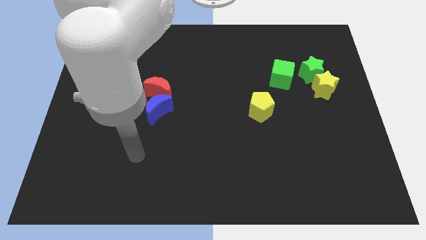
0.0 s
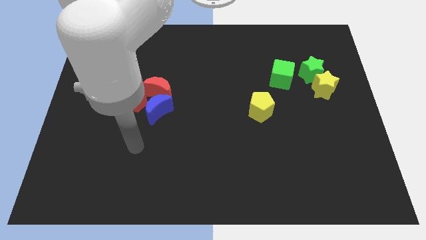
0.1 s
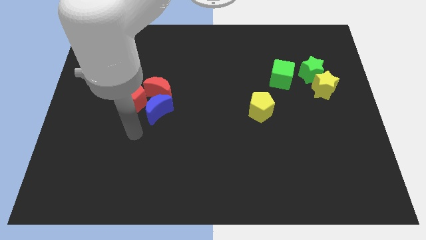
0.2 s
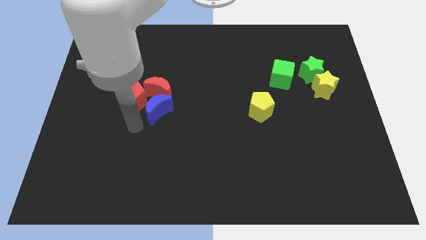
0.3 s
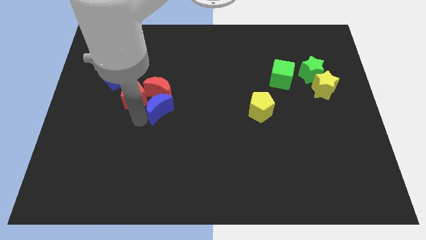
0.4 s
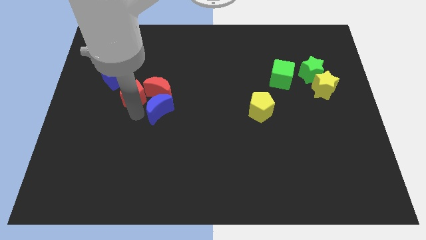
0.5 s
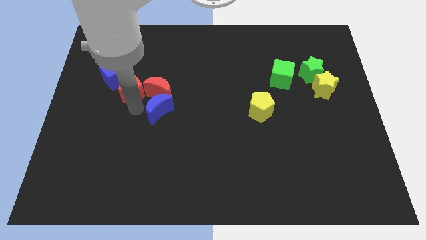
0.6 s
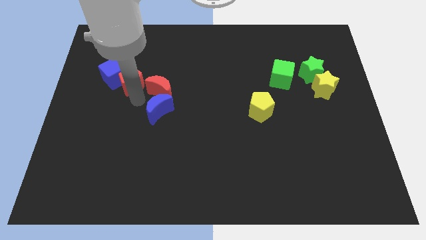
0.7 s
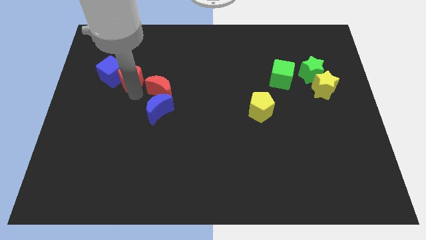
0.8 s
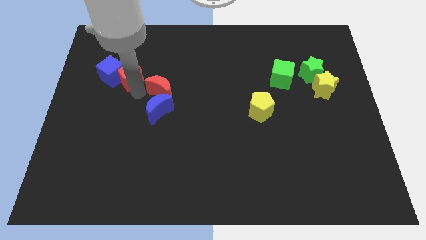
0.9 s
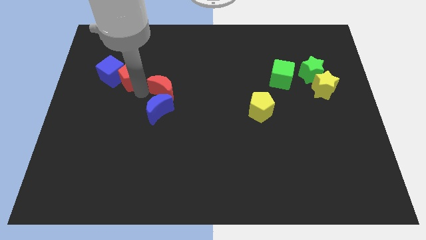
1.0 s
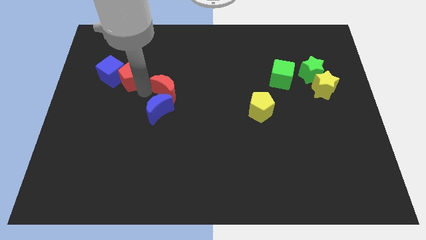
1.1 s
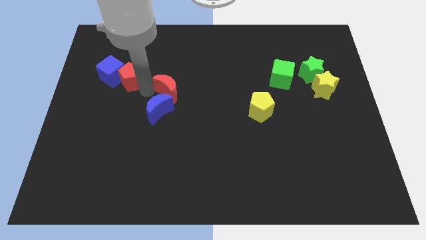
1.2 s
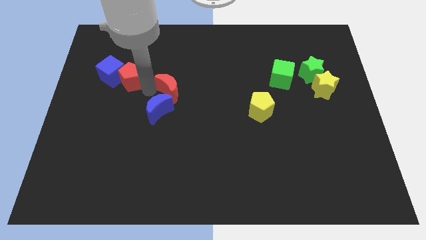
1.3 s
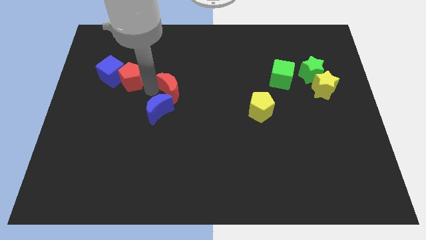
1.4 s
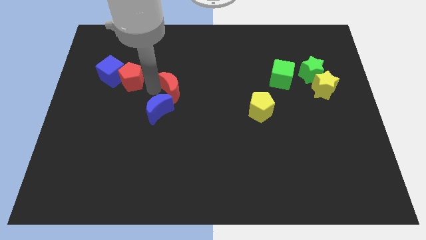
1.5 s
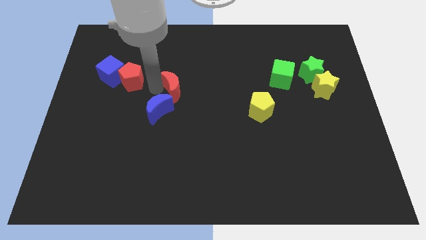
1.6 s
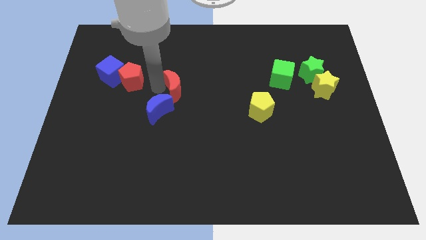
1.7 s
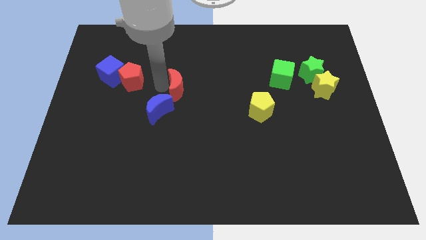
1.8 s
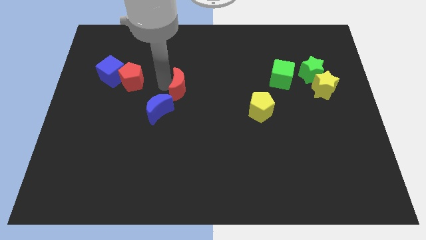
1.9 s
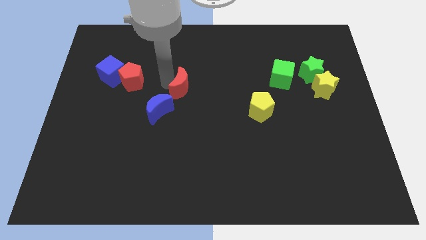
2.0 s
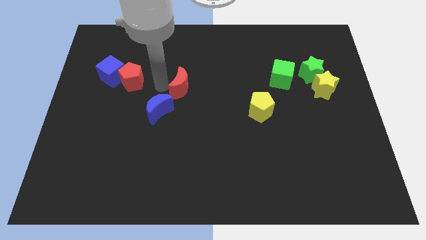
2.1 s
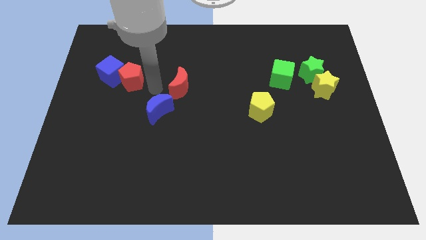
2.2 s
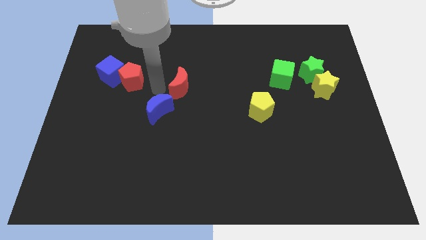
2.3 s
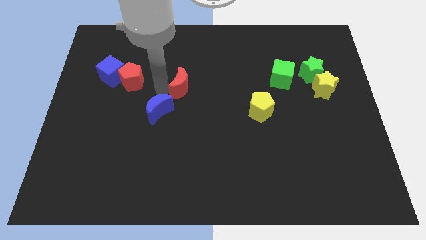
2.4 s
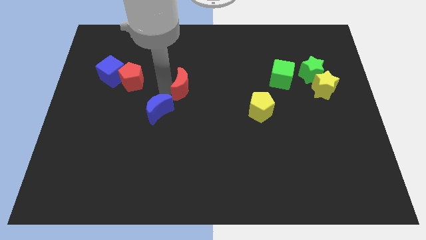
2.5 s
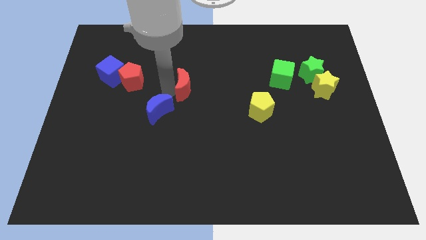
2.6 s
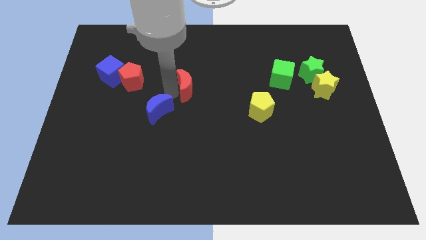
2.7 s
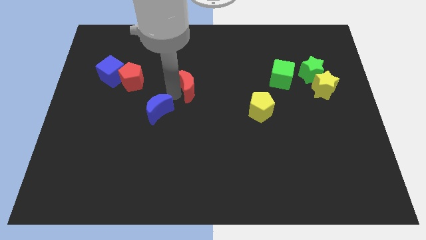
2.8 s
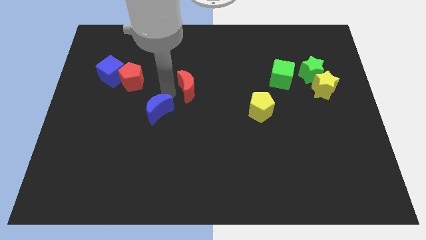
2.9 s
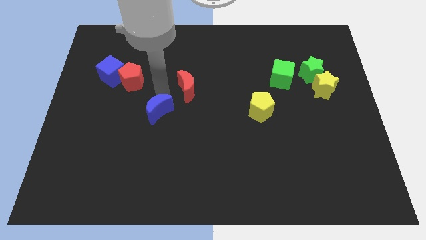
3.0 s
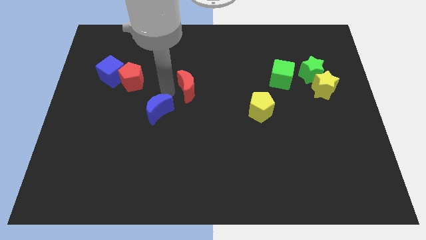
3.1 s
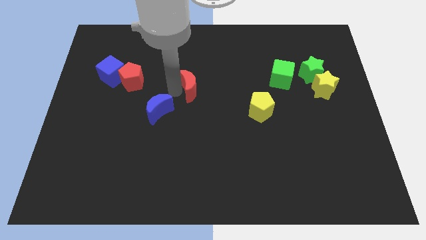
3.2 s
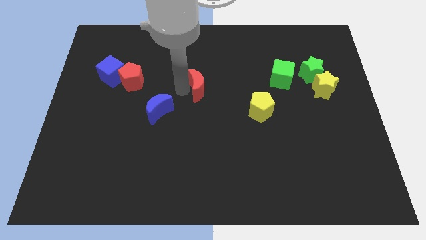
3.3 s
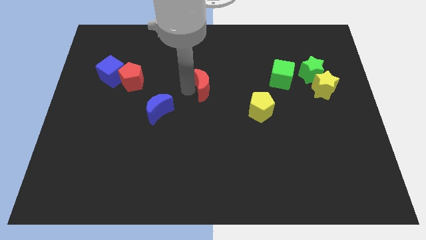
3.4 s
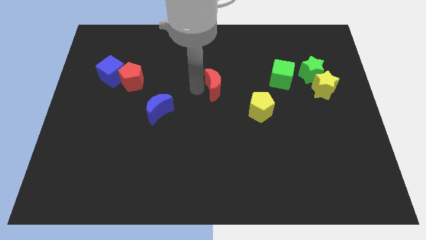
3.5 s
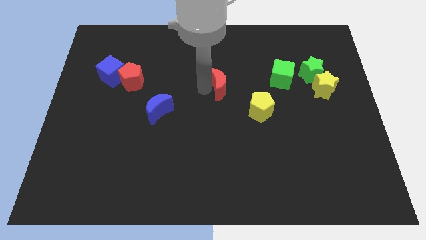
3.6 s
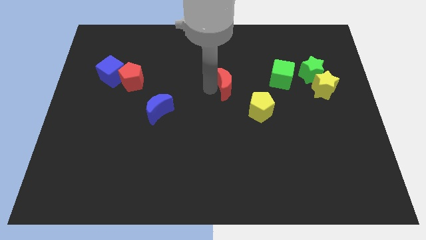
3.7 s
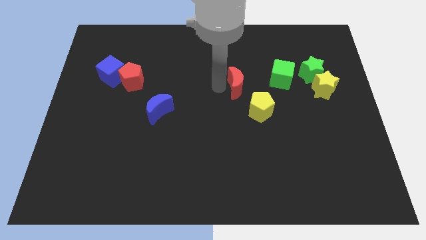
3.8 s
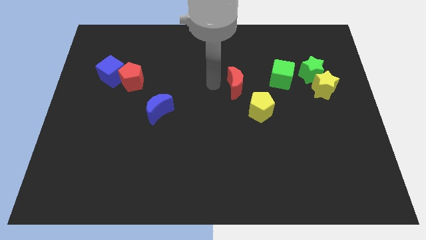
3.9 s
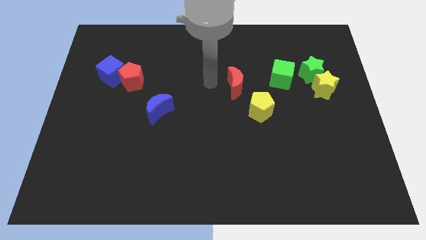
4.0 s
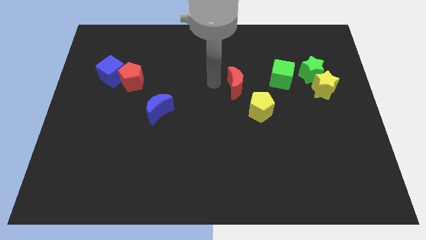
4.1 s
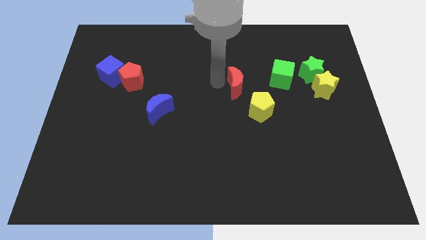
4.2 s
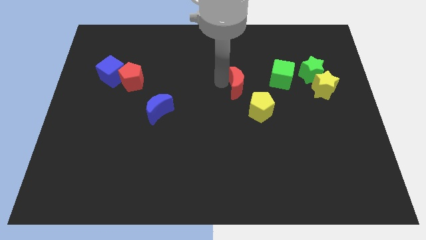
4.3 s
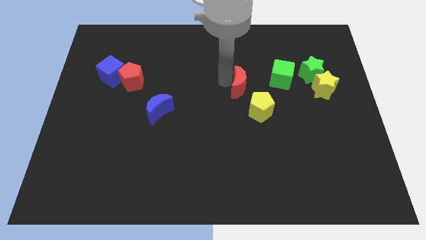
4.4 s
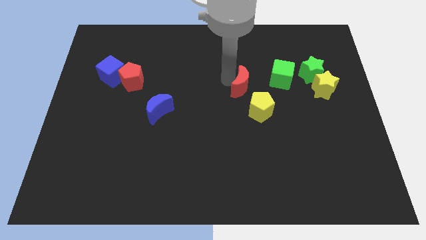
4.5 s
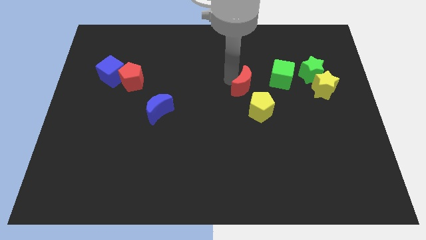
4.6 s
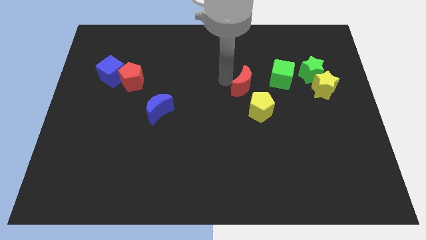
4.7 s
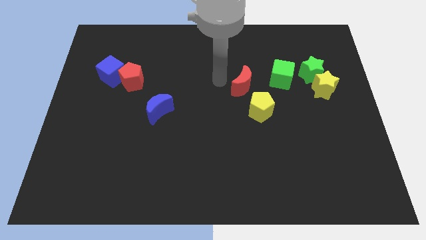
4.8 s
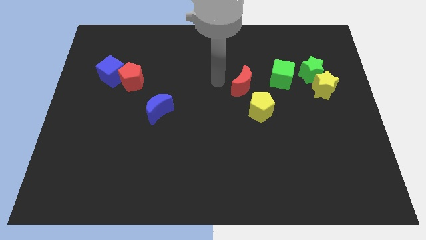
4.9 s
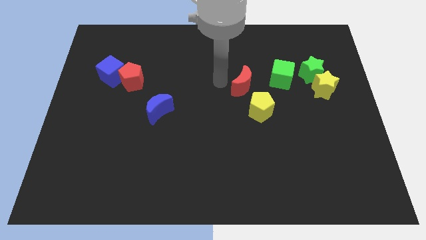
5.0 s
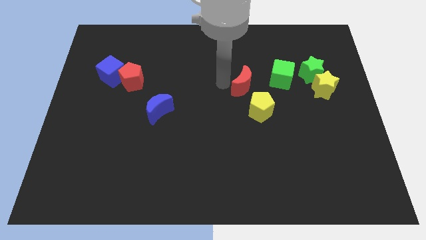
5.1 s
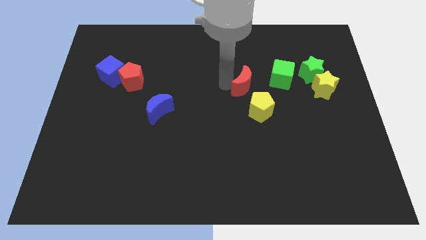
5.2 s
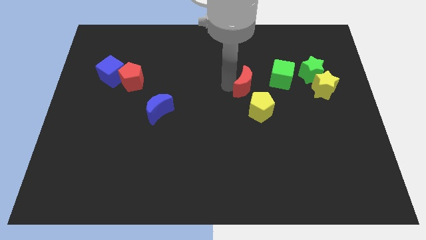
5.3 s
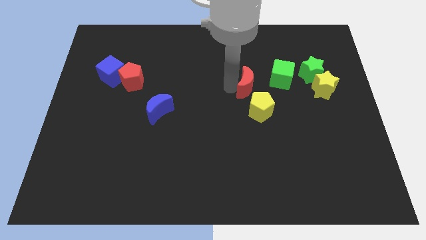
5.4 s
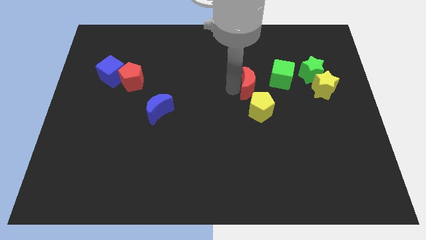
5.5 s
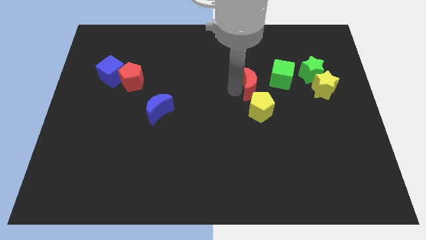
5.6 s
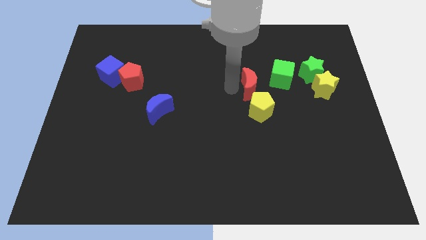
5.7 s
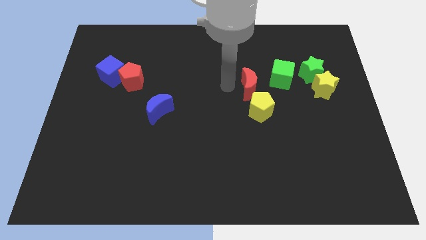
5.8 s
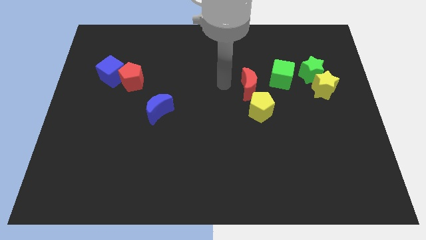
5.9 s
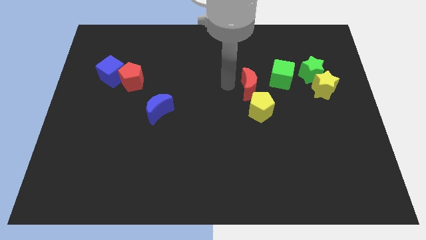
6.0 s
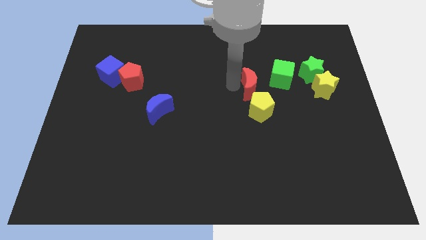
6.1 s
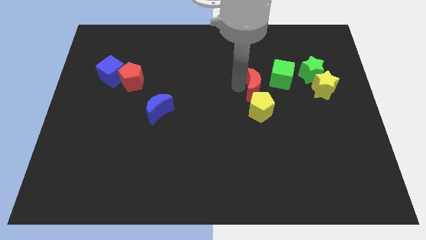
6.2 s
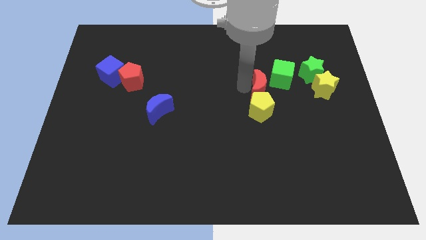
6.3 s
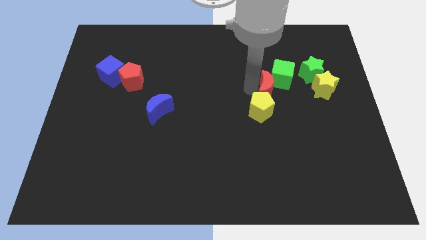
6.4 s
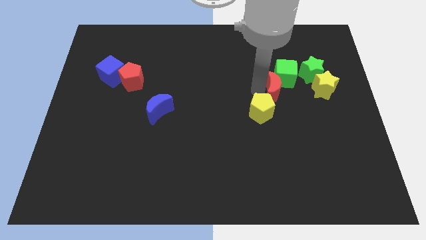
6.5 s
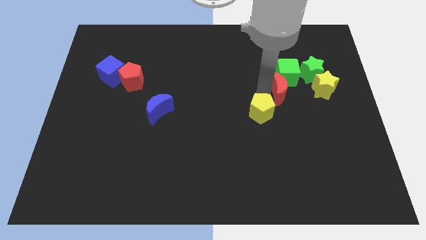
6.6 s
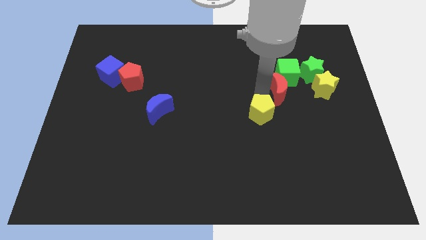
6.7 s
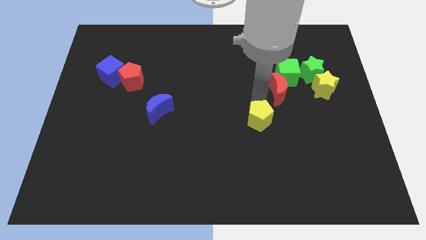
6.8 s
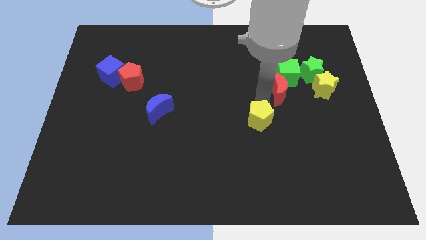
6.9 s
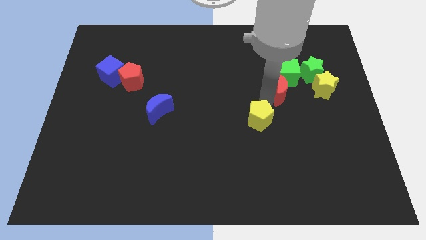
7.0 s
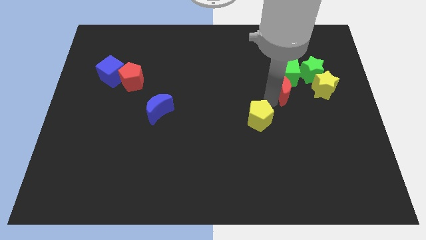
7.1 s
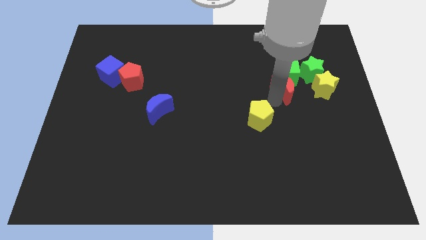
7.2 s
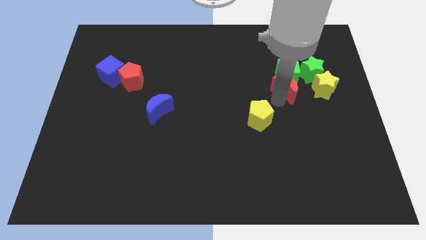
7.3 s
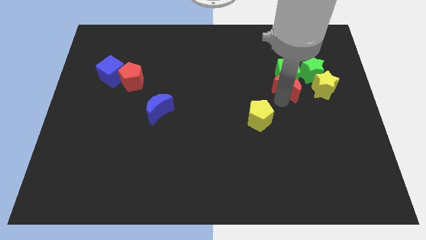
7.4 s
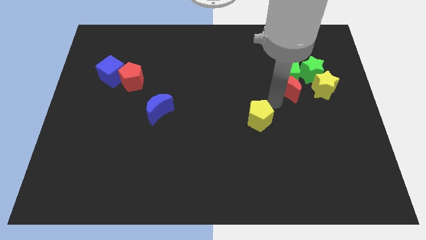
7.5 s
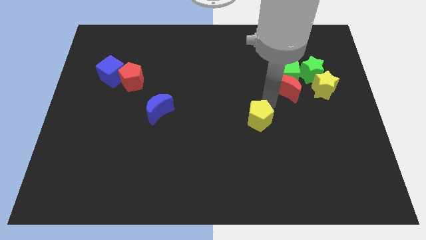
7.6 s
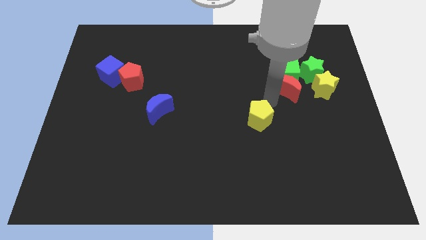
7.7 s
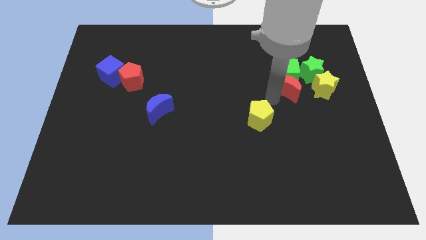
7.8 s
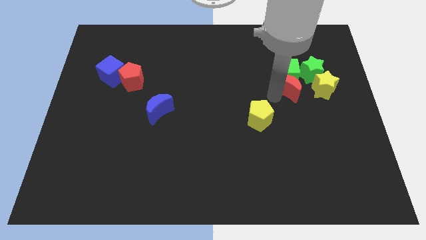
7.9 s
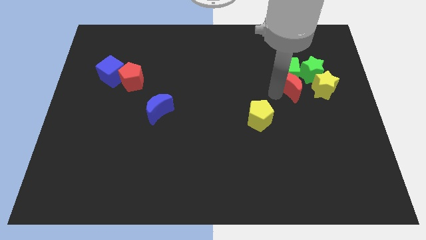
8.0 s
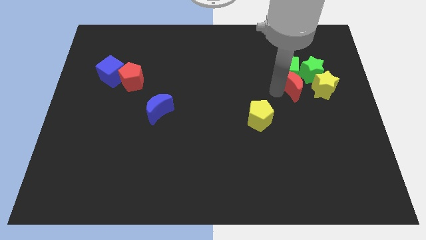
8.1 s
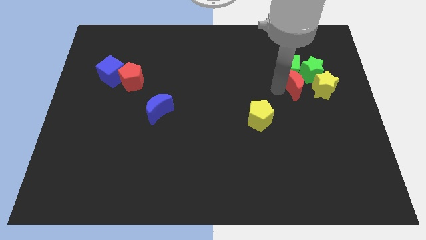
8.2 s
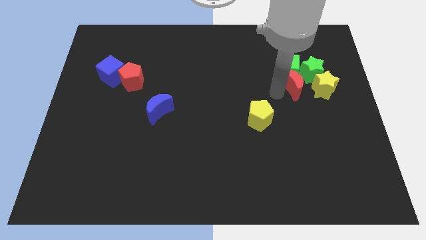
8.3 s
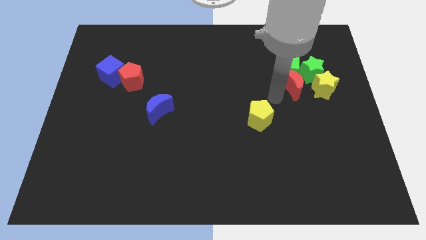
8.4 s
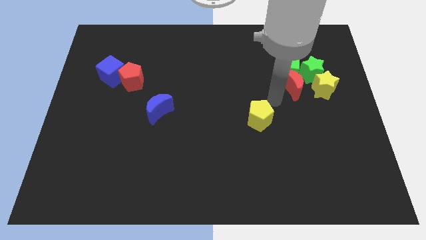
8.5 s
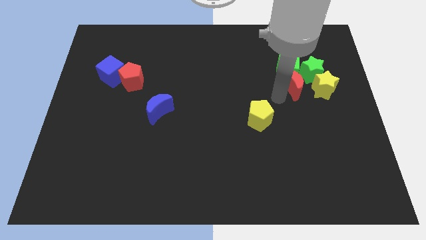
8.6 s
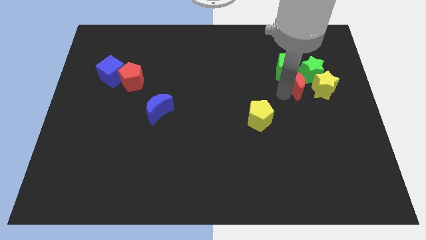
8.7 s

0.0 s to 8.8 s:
slide the red moon close to the green star
